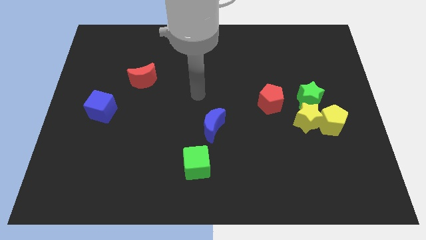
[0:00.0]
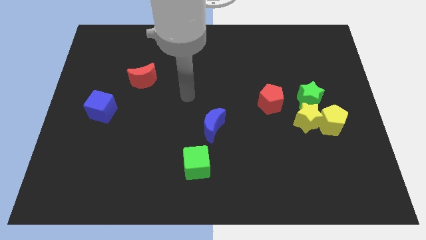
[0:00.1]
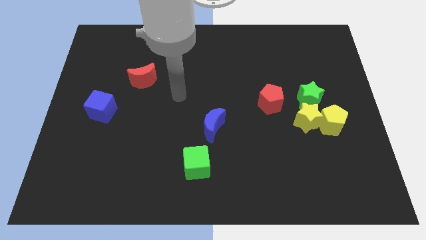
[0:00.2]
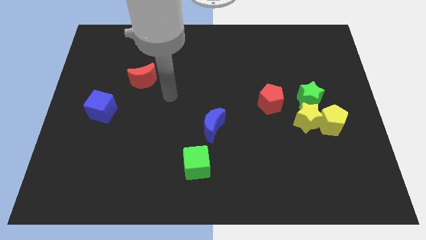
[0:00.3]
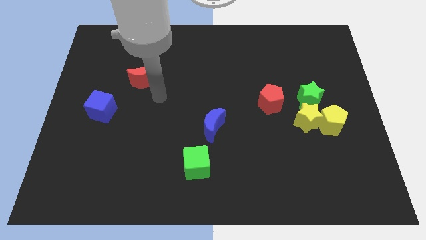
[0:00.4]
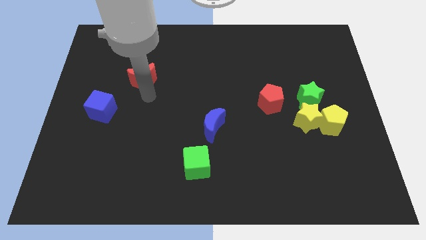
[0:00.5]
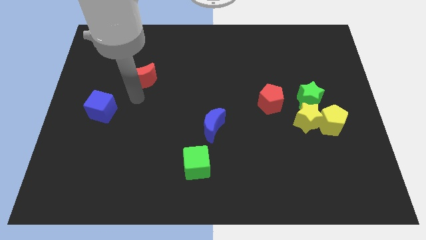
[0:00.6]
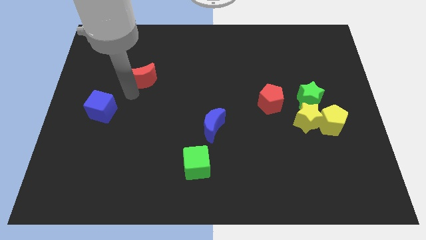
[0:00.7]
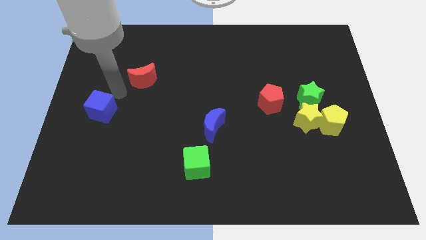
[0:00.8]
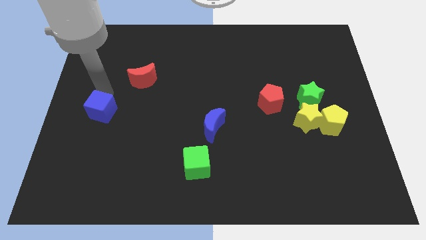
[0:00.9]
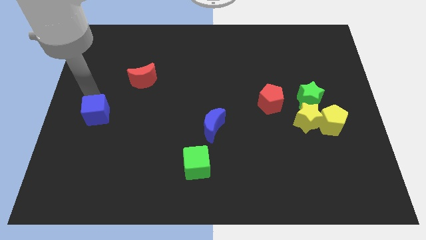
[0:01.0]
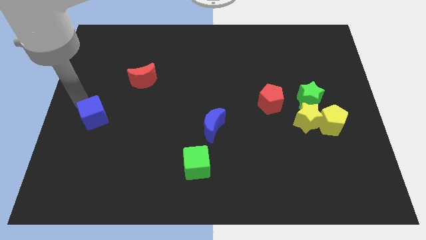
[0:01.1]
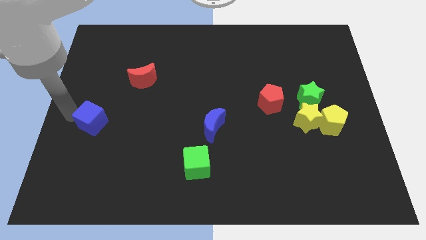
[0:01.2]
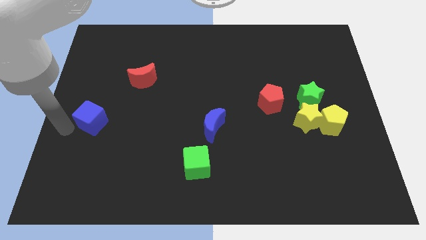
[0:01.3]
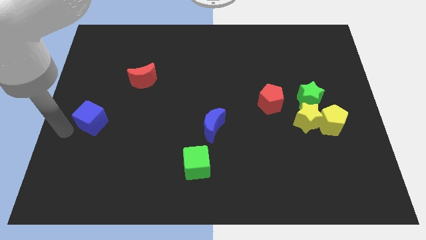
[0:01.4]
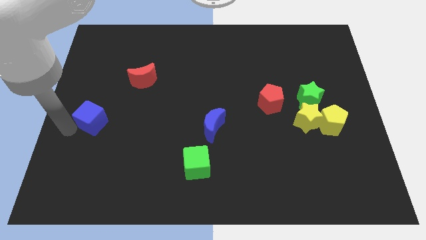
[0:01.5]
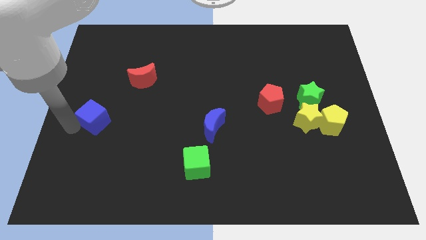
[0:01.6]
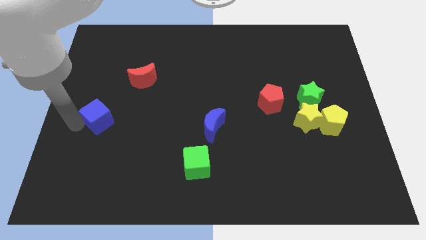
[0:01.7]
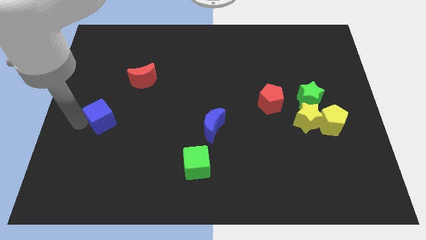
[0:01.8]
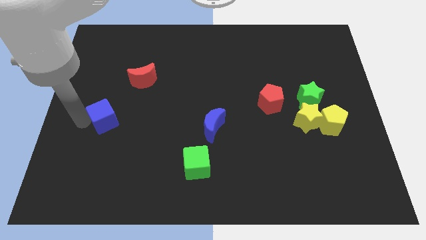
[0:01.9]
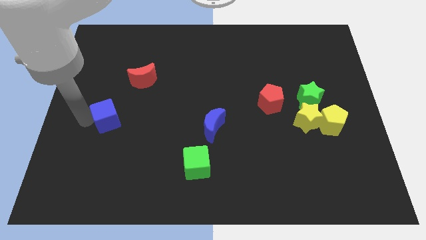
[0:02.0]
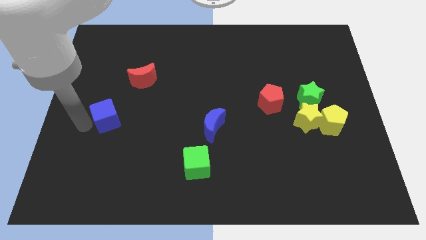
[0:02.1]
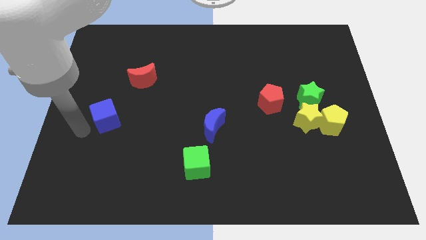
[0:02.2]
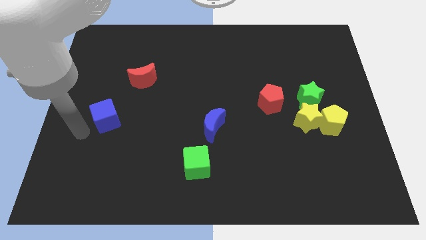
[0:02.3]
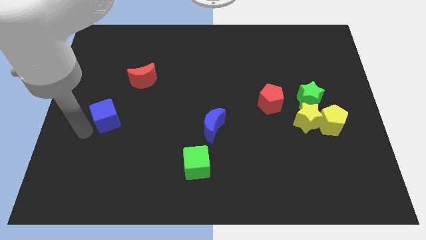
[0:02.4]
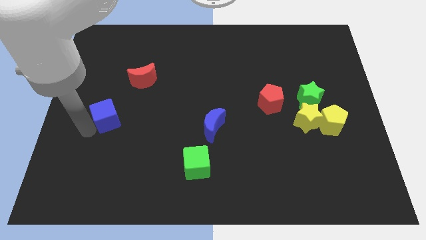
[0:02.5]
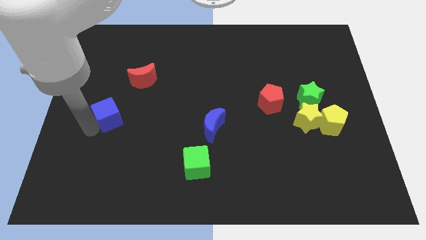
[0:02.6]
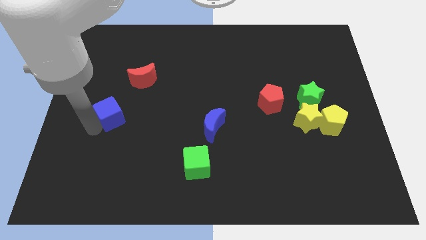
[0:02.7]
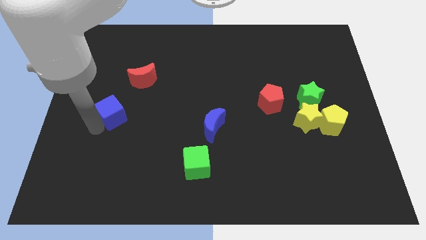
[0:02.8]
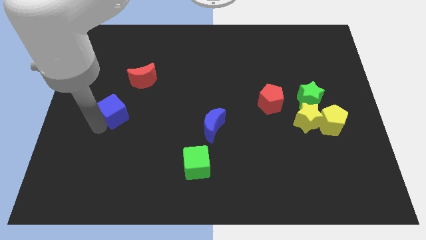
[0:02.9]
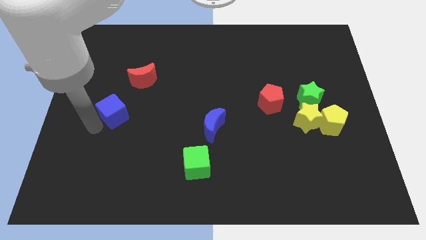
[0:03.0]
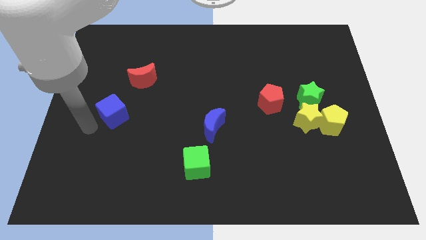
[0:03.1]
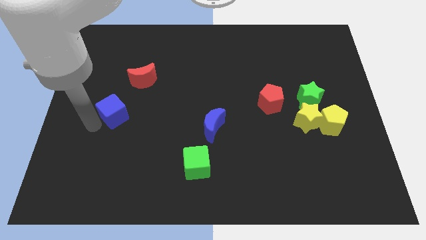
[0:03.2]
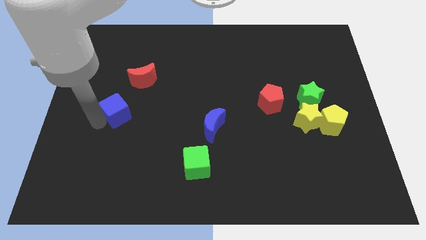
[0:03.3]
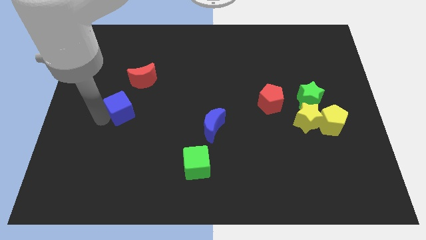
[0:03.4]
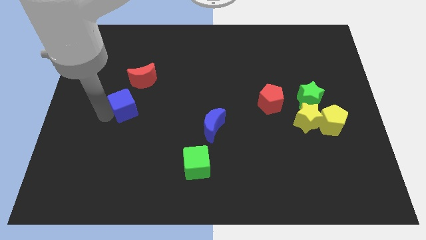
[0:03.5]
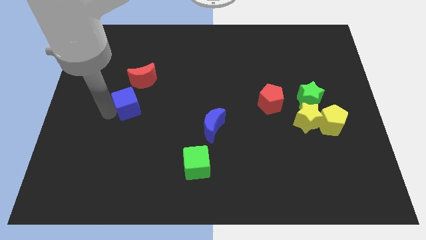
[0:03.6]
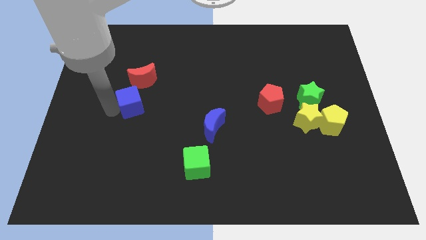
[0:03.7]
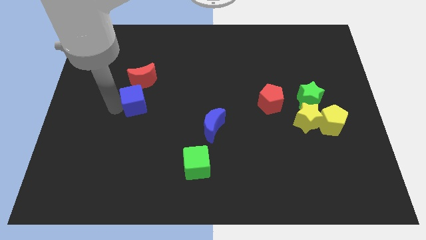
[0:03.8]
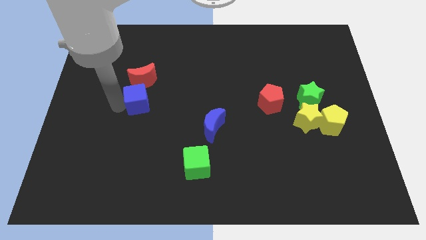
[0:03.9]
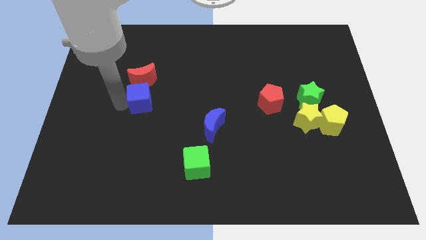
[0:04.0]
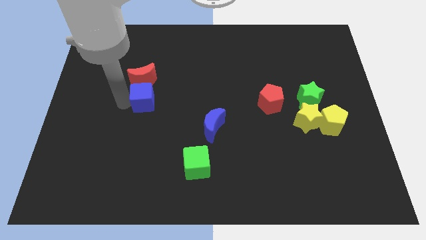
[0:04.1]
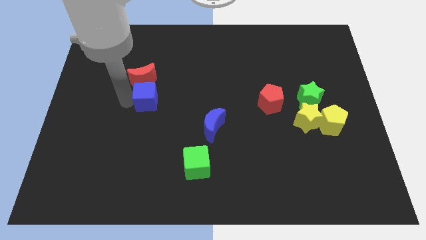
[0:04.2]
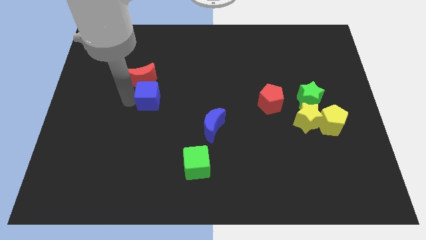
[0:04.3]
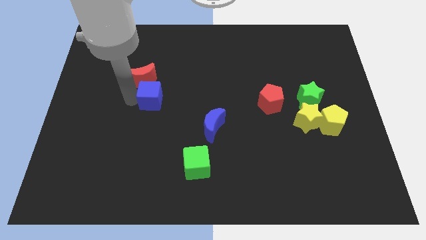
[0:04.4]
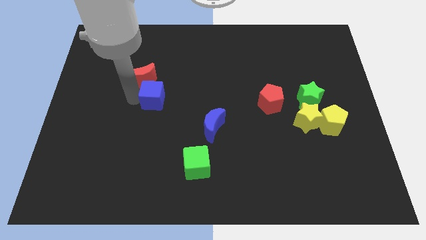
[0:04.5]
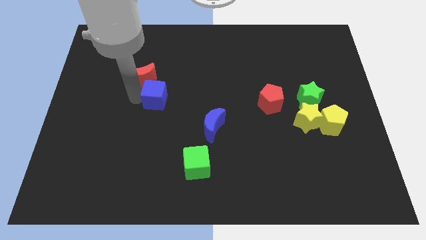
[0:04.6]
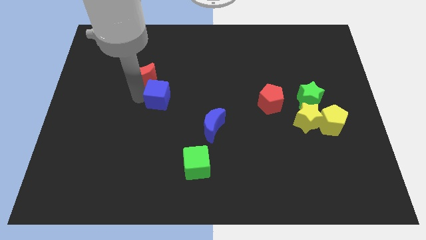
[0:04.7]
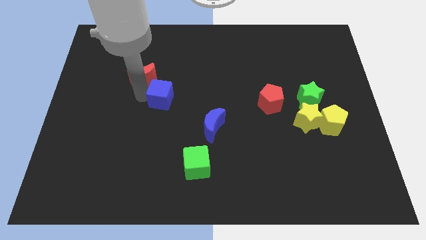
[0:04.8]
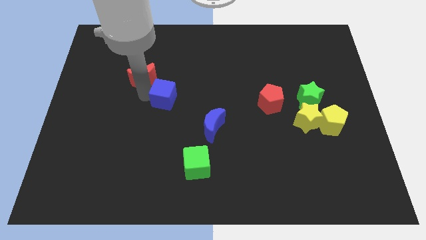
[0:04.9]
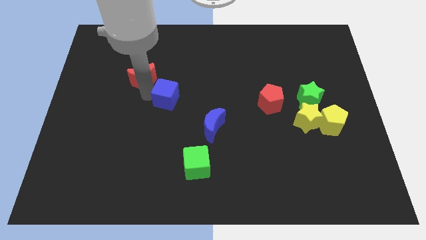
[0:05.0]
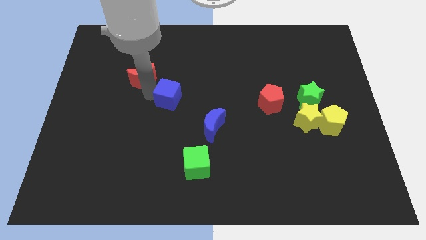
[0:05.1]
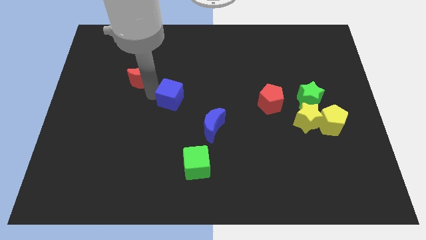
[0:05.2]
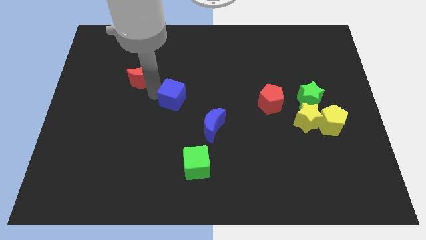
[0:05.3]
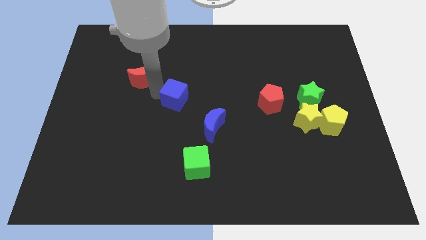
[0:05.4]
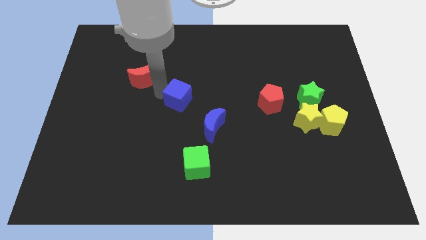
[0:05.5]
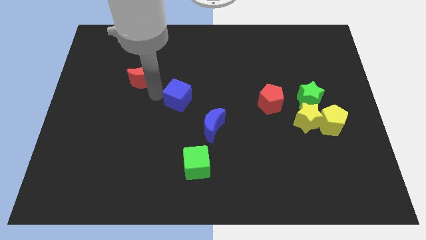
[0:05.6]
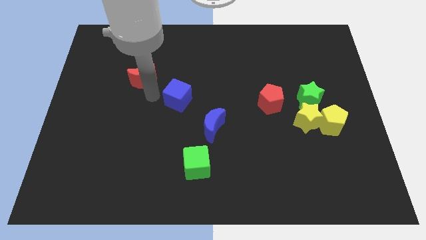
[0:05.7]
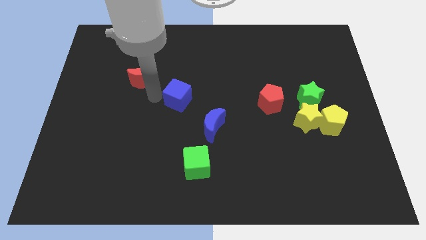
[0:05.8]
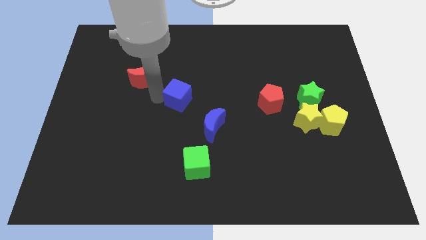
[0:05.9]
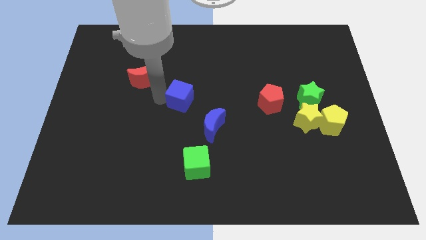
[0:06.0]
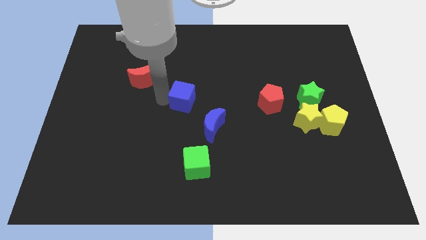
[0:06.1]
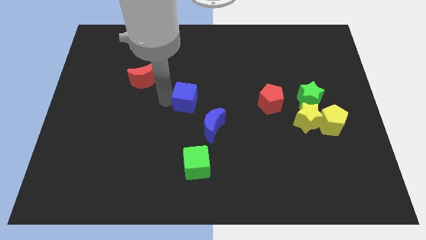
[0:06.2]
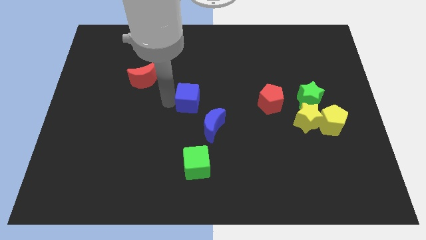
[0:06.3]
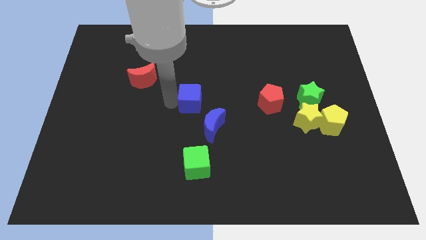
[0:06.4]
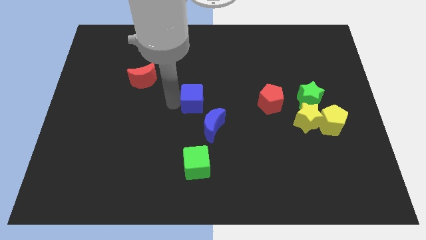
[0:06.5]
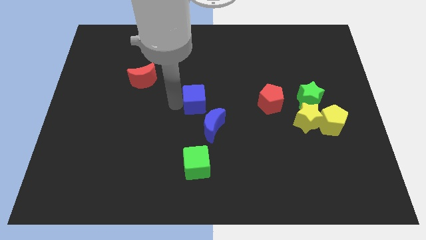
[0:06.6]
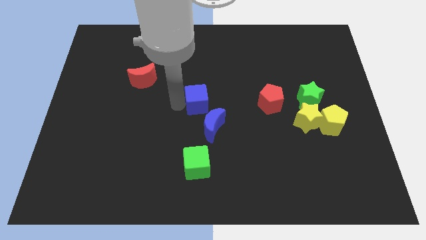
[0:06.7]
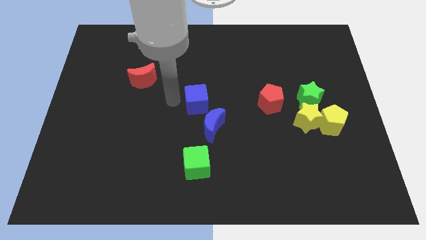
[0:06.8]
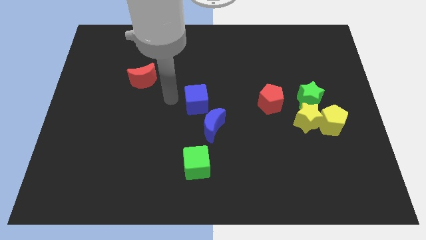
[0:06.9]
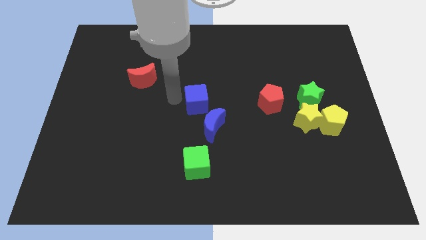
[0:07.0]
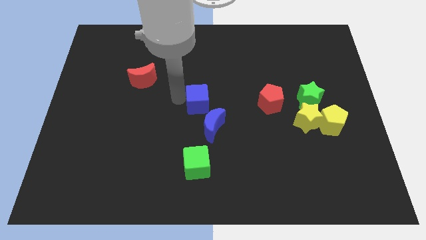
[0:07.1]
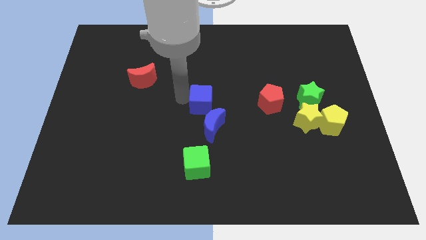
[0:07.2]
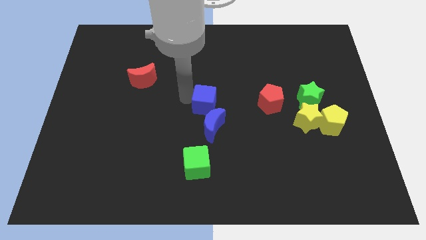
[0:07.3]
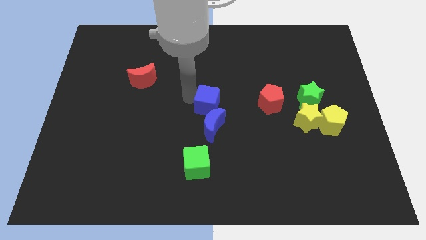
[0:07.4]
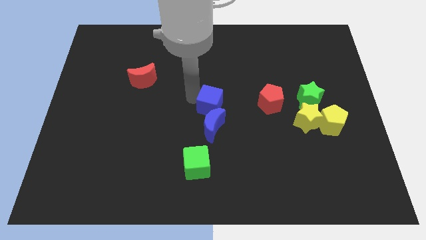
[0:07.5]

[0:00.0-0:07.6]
slide the blue cube to the top right of the blue moon
